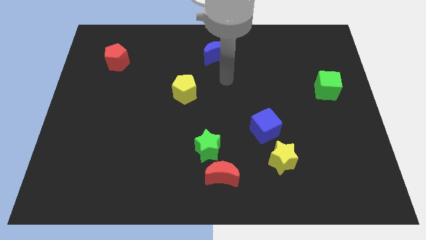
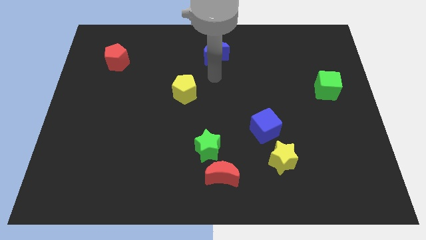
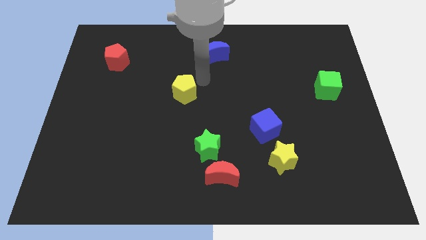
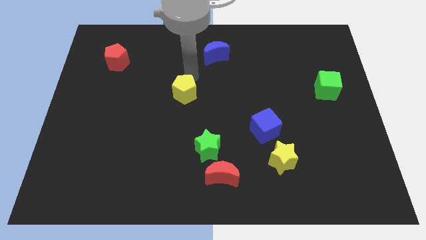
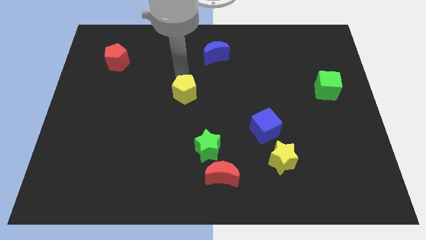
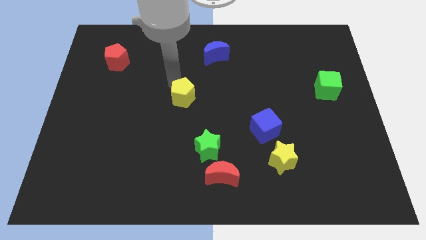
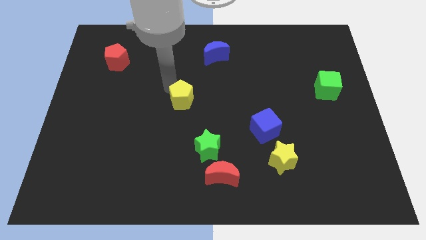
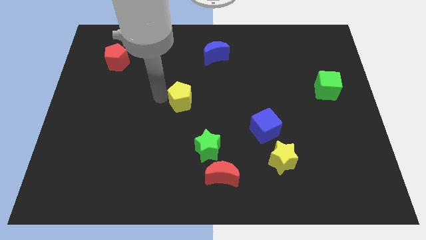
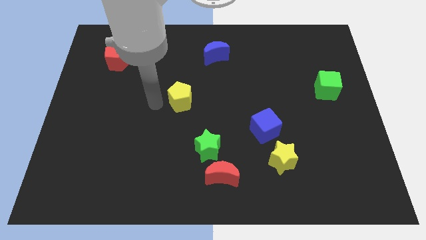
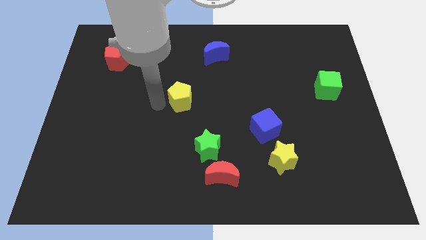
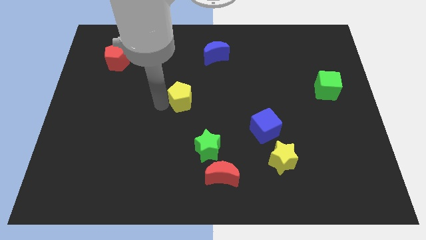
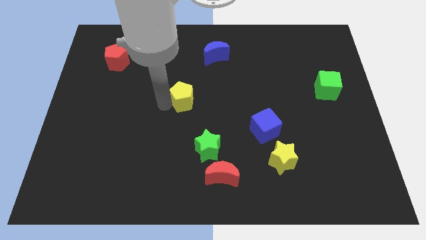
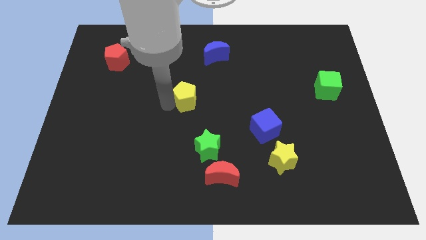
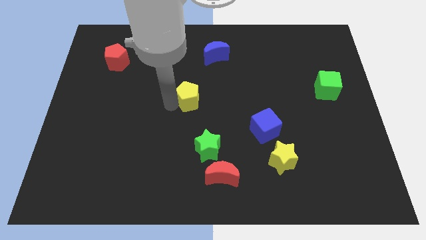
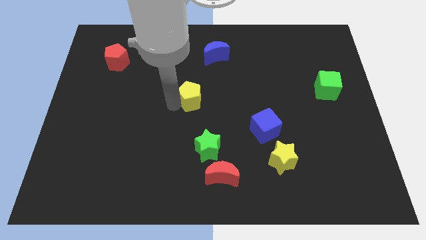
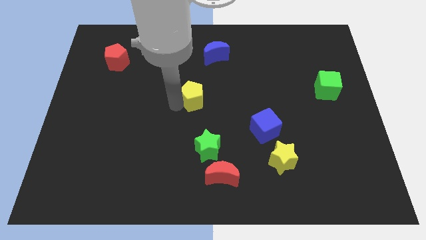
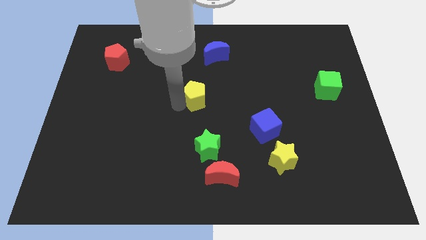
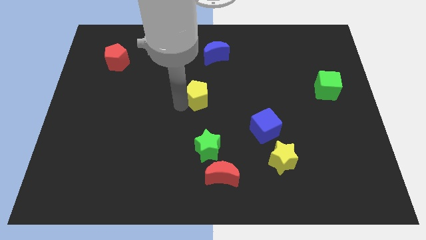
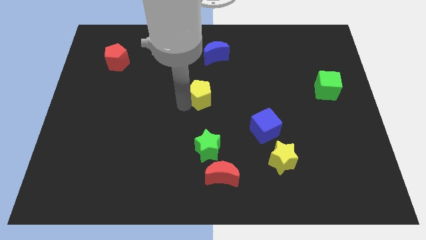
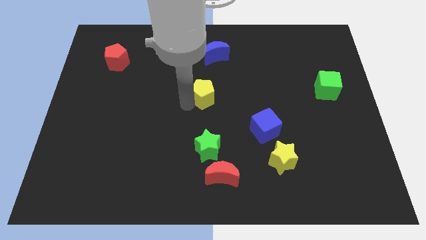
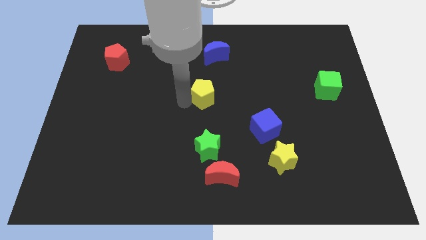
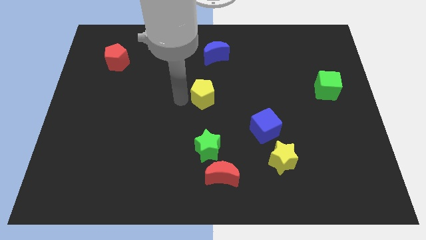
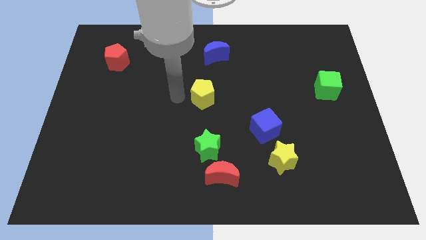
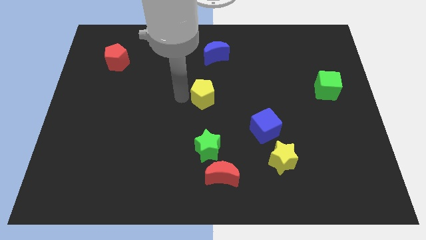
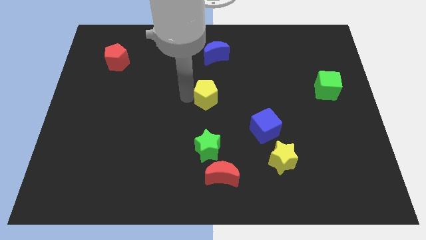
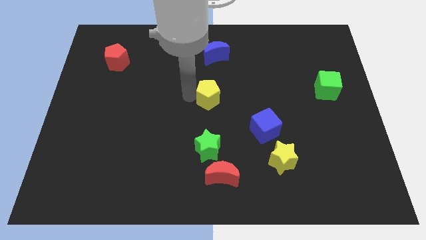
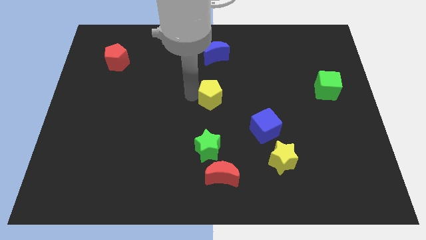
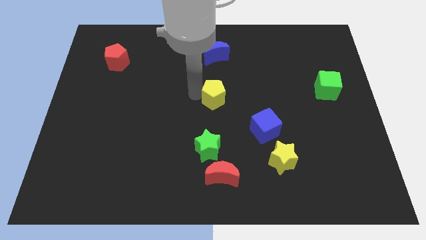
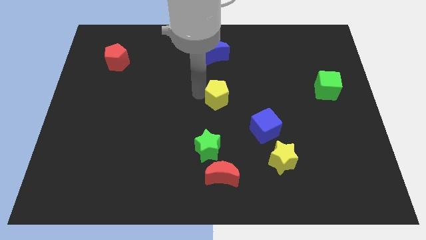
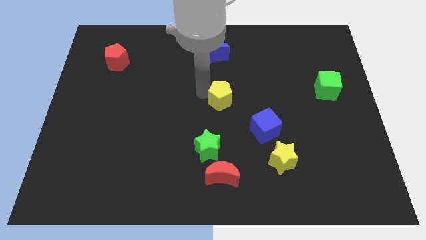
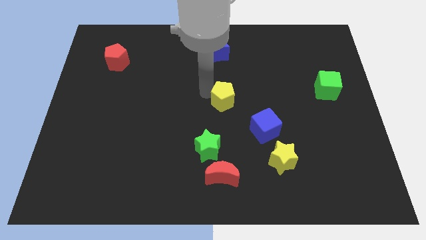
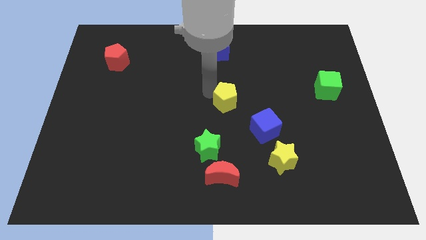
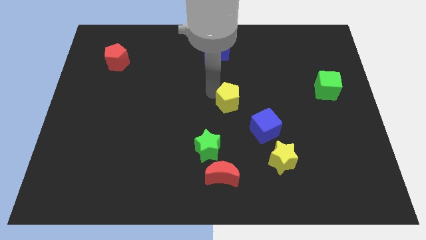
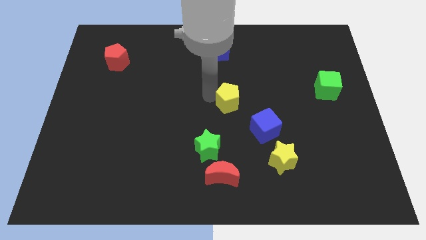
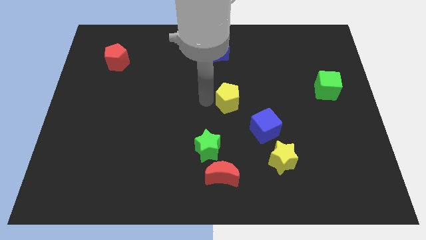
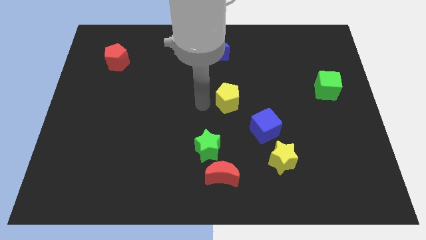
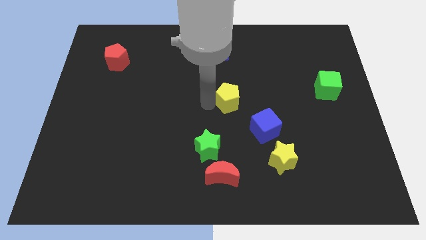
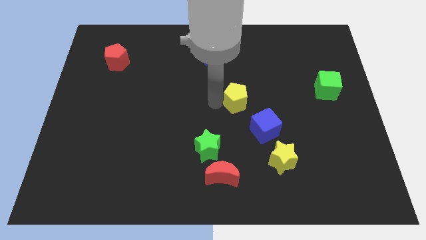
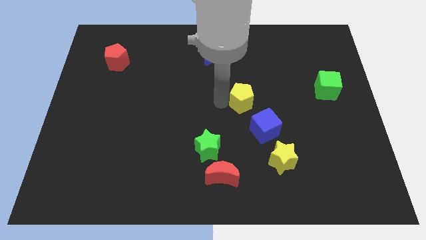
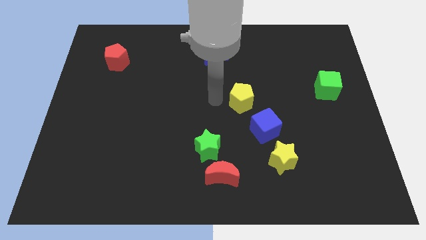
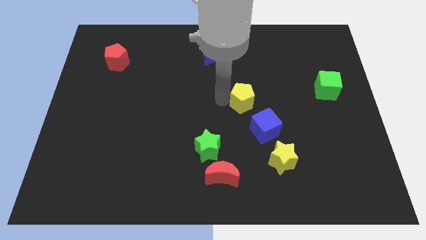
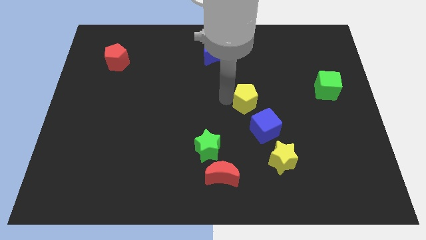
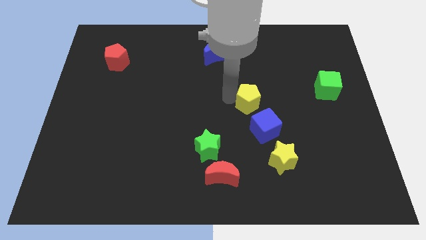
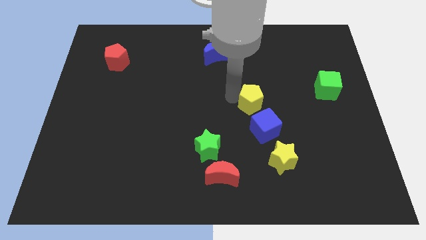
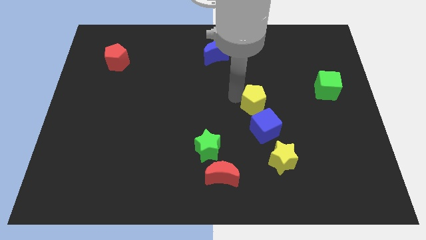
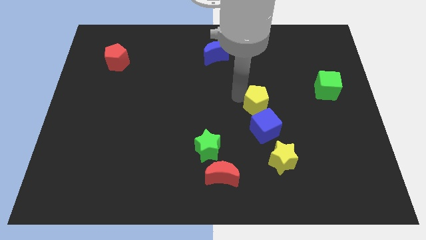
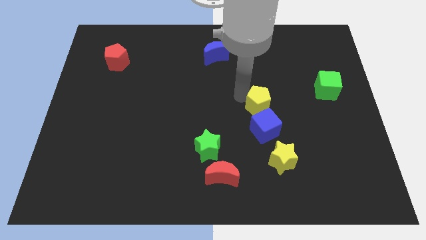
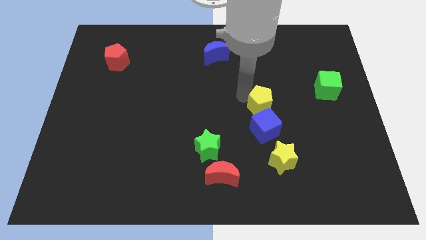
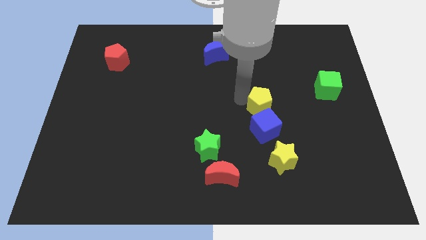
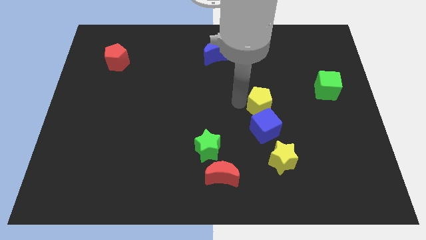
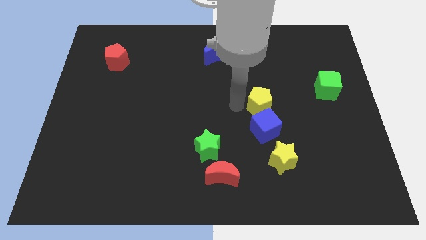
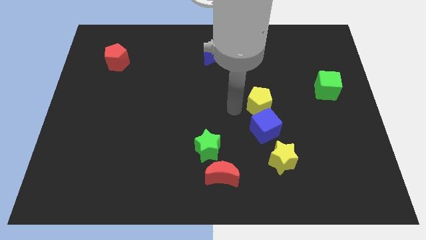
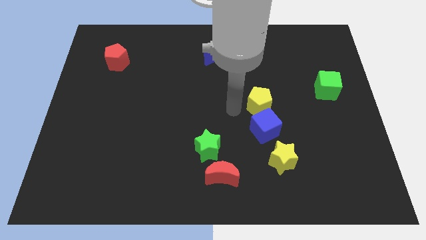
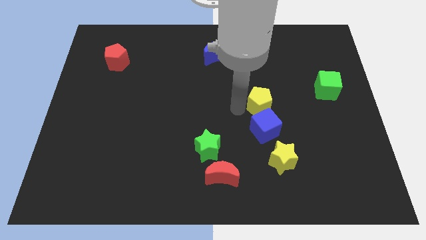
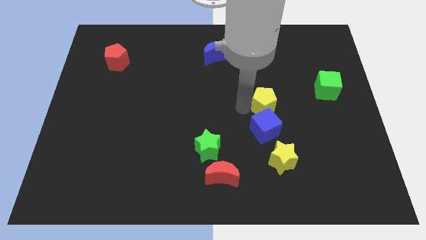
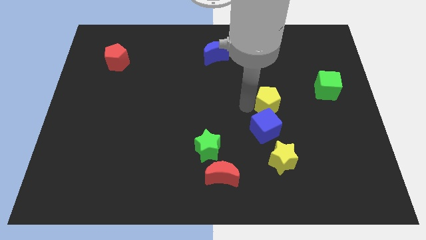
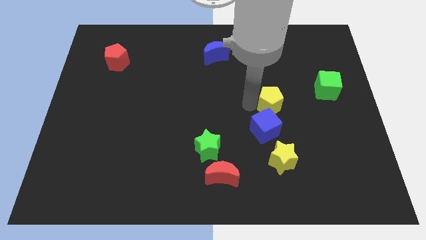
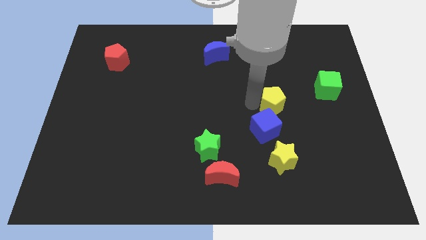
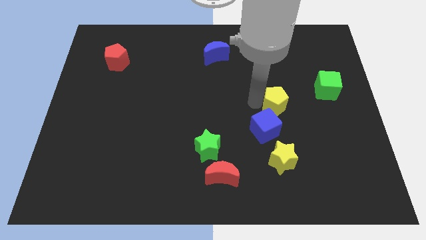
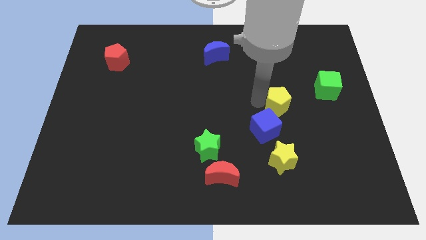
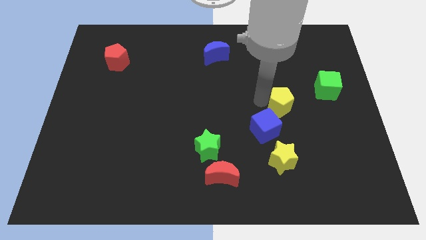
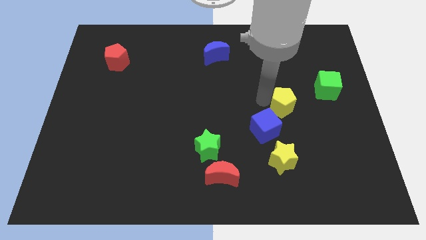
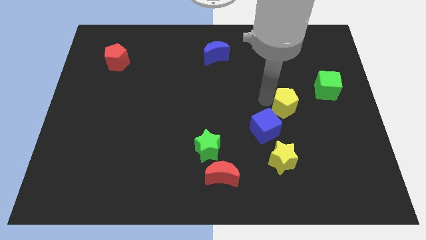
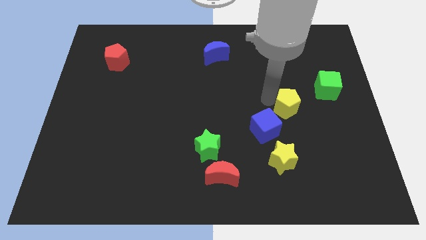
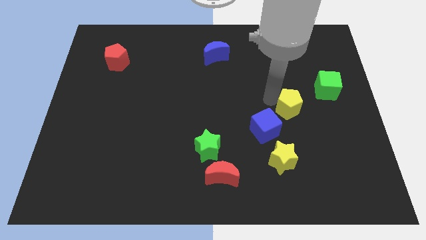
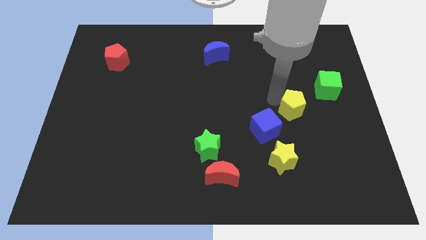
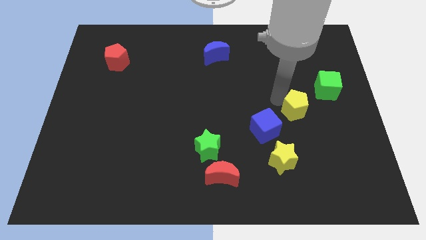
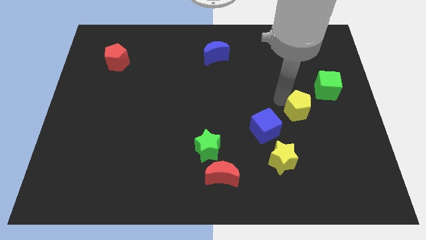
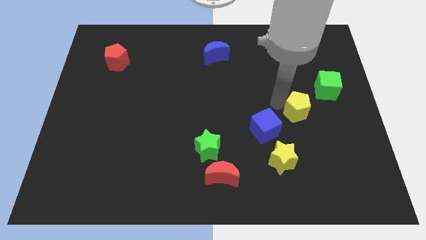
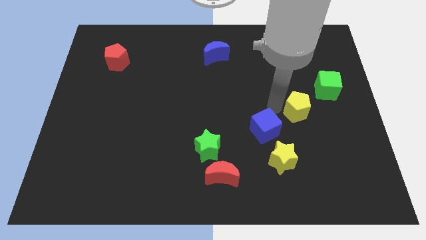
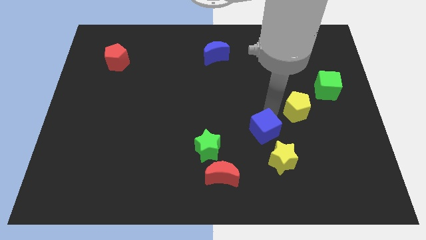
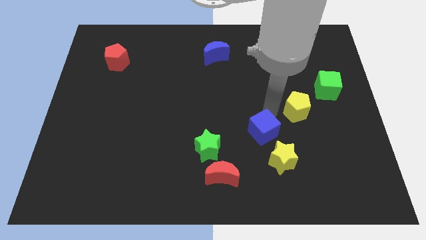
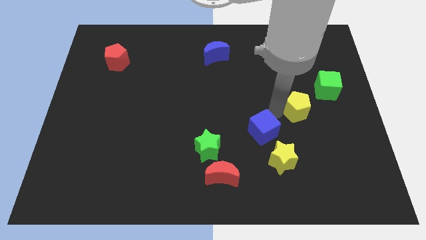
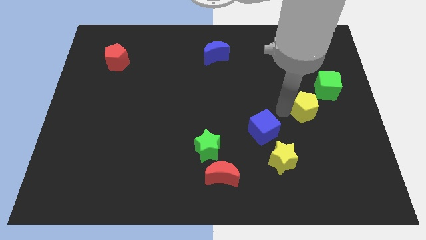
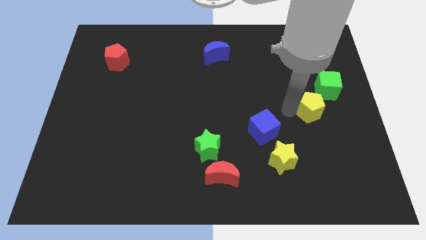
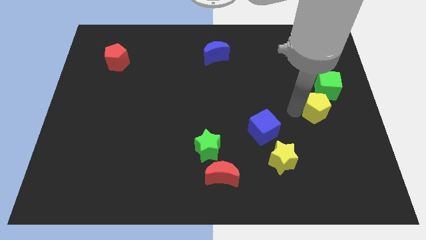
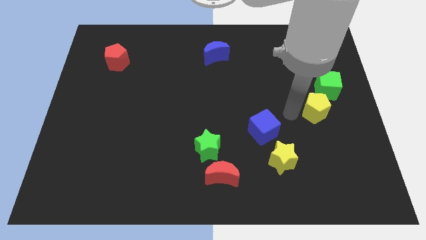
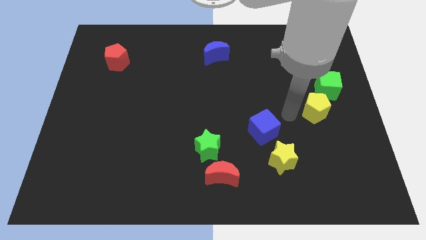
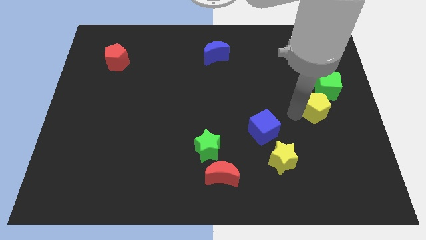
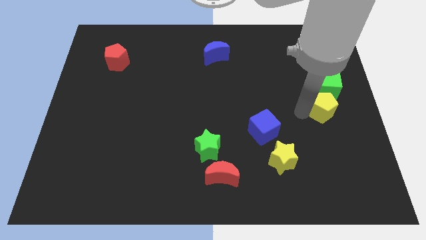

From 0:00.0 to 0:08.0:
move the yellow pentagon to the center right
